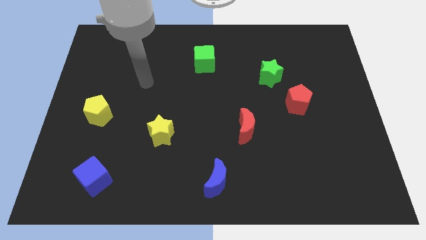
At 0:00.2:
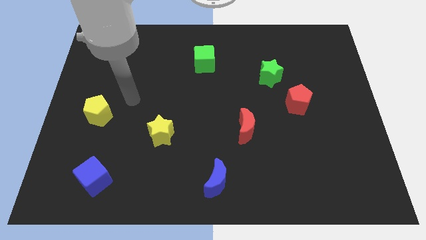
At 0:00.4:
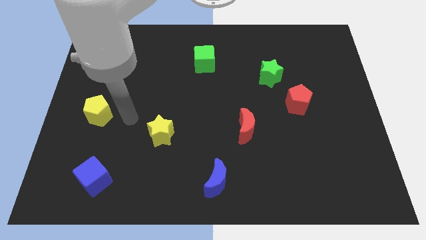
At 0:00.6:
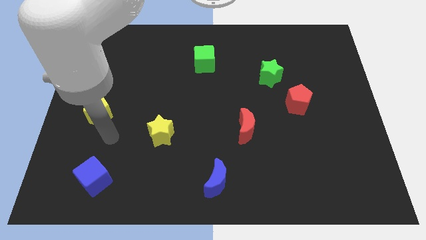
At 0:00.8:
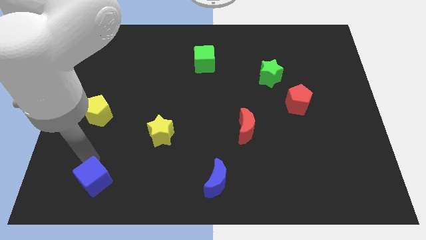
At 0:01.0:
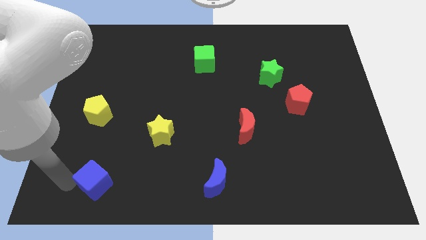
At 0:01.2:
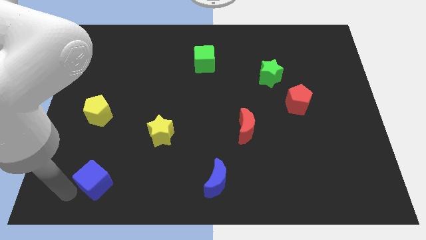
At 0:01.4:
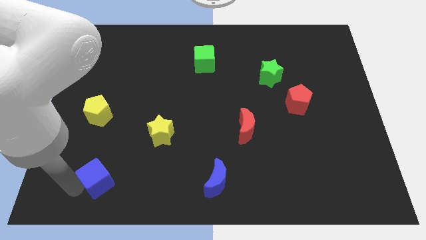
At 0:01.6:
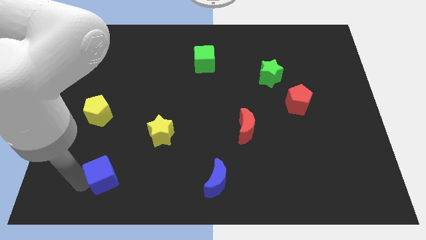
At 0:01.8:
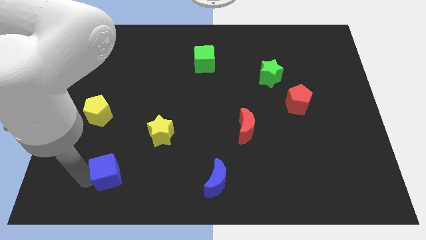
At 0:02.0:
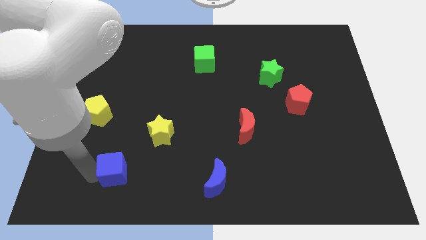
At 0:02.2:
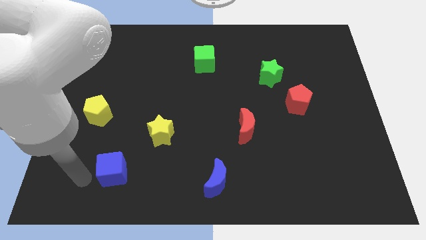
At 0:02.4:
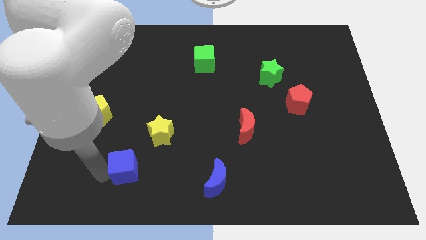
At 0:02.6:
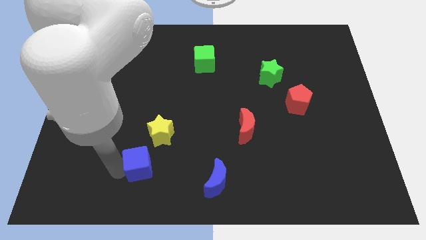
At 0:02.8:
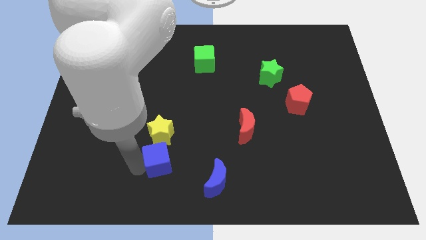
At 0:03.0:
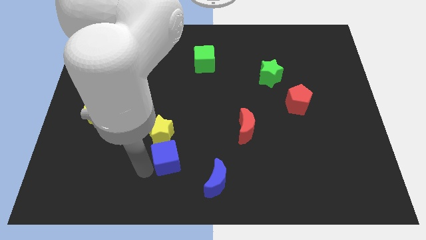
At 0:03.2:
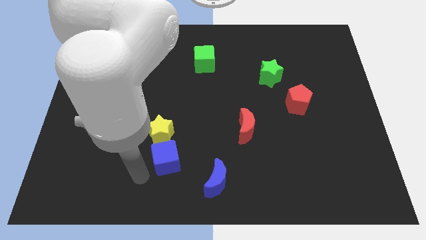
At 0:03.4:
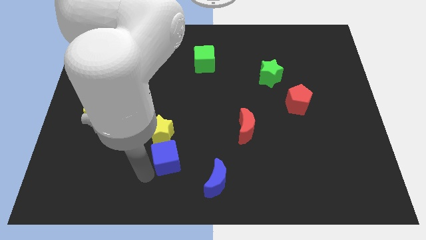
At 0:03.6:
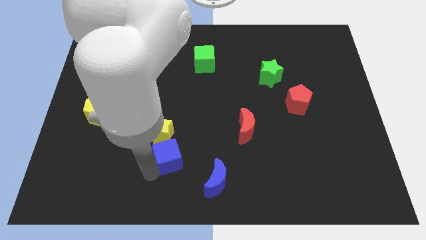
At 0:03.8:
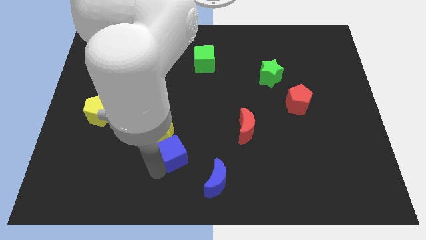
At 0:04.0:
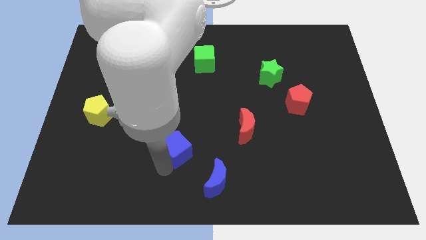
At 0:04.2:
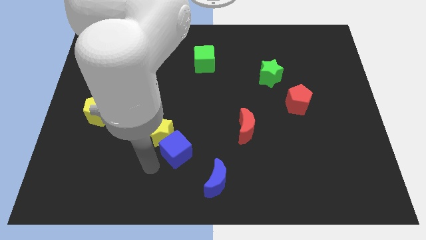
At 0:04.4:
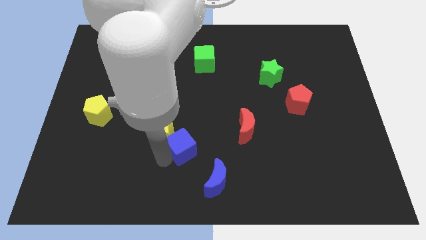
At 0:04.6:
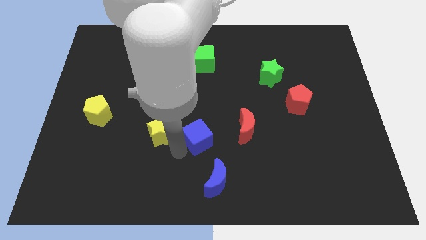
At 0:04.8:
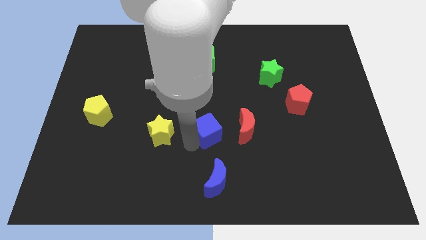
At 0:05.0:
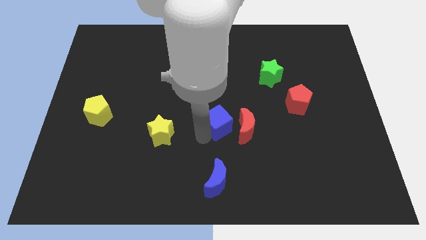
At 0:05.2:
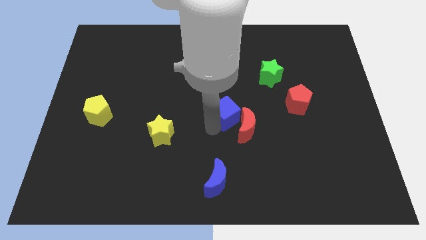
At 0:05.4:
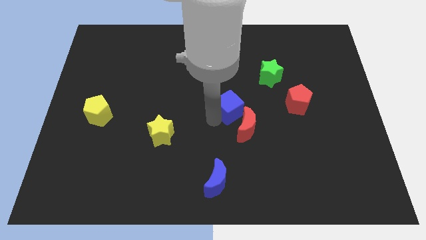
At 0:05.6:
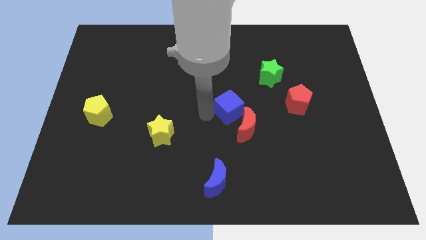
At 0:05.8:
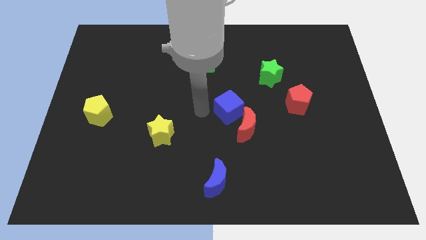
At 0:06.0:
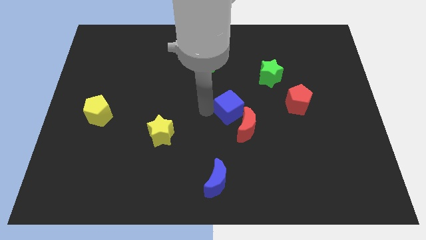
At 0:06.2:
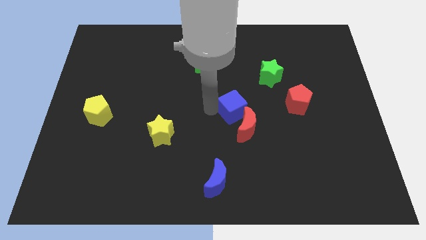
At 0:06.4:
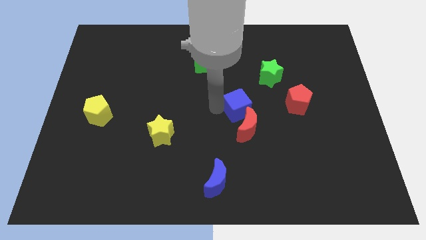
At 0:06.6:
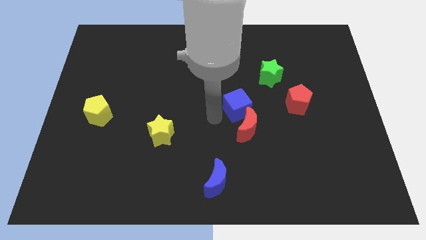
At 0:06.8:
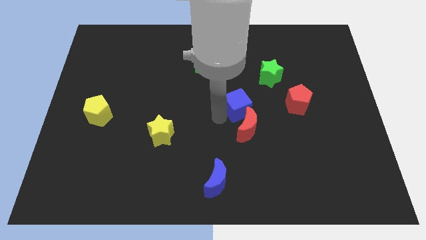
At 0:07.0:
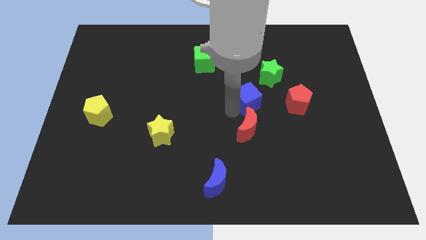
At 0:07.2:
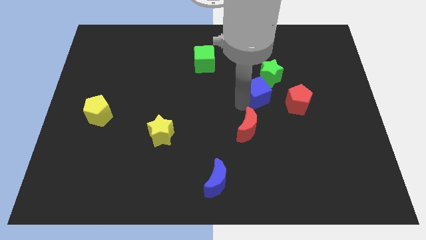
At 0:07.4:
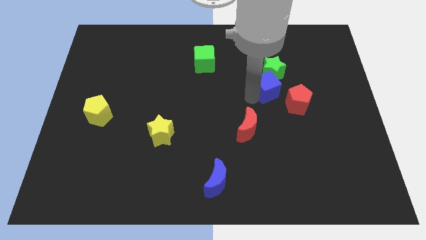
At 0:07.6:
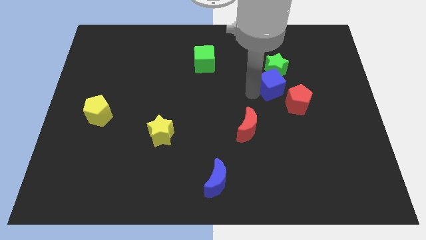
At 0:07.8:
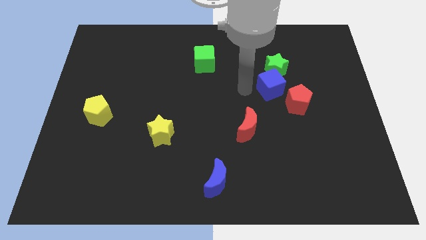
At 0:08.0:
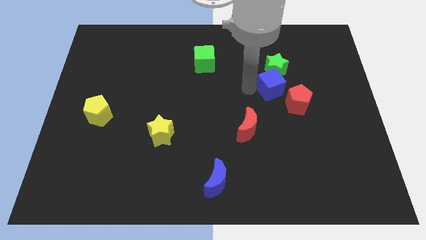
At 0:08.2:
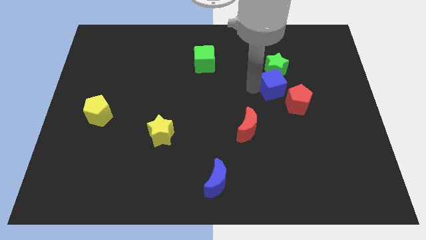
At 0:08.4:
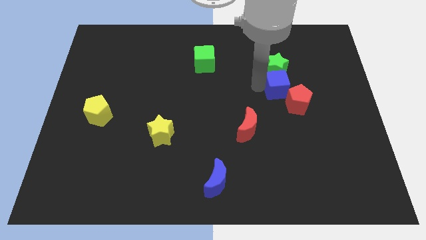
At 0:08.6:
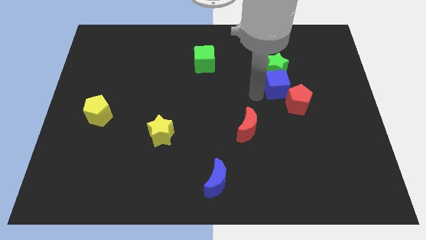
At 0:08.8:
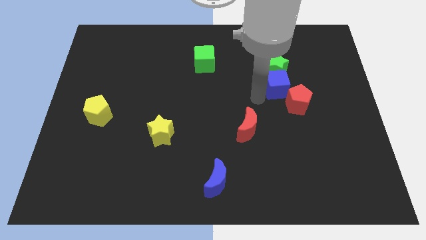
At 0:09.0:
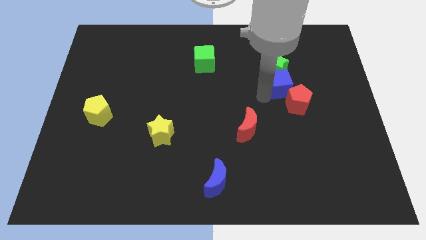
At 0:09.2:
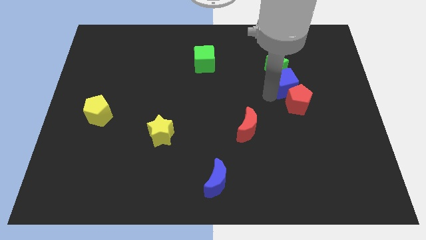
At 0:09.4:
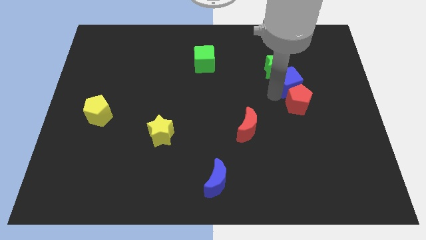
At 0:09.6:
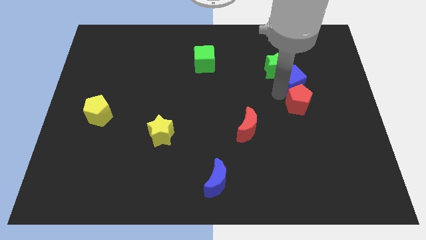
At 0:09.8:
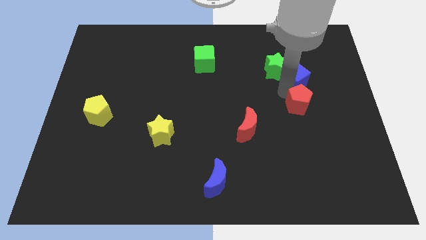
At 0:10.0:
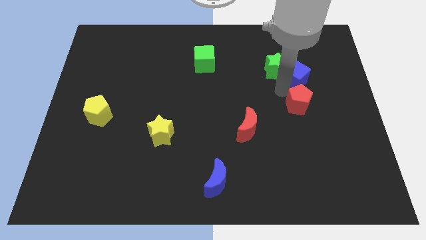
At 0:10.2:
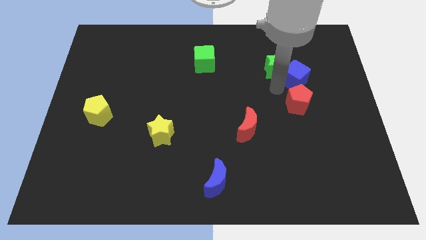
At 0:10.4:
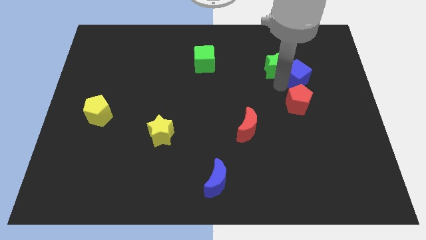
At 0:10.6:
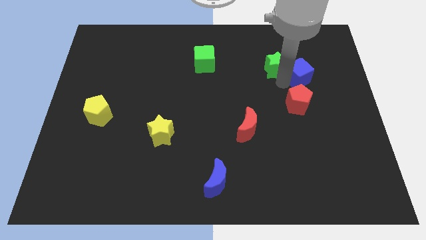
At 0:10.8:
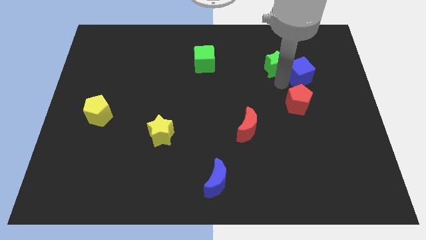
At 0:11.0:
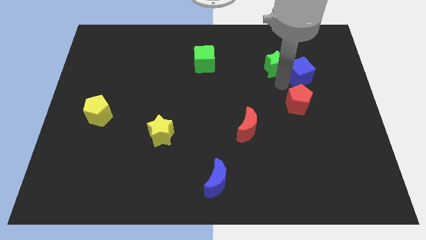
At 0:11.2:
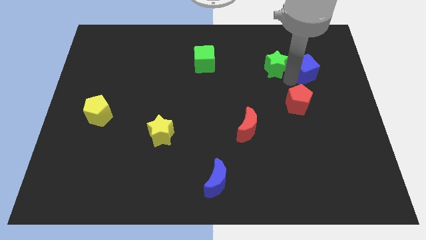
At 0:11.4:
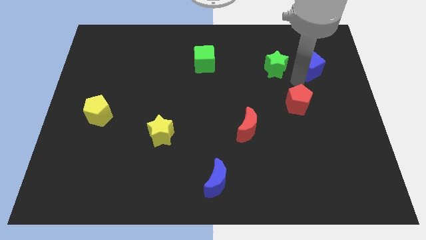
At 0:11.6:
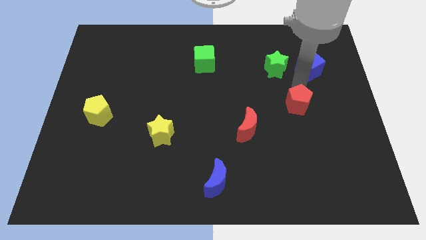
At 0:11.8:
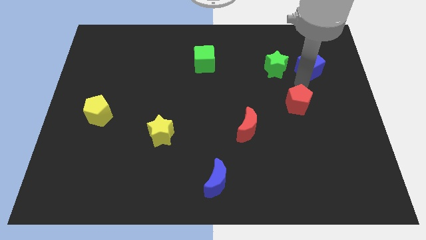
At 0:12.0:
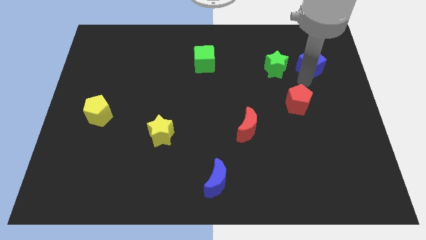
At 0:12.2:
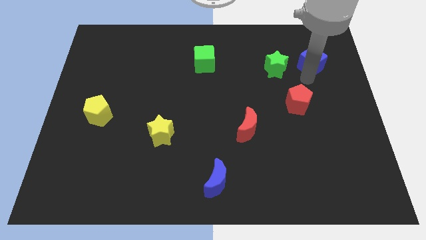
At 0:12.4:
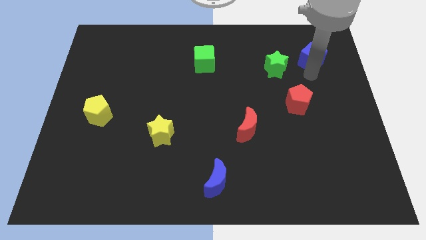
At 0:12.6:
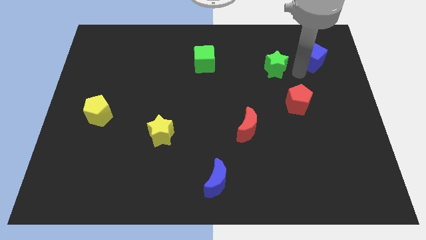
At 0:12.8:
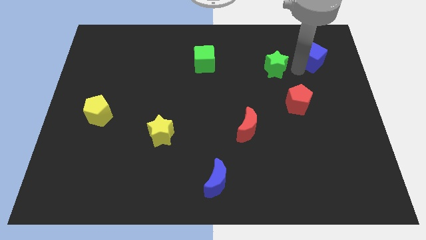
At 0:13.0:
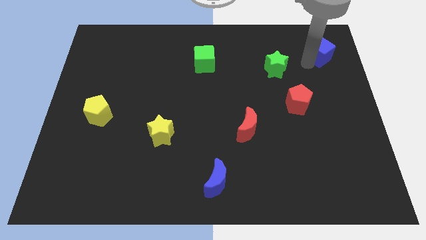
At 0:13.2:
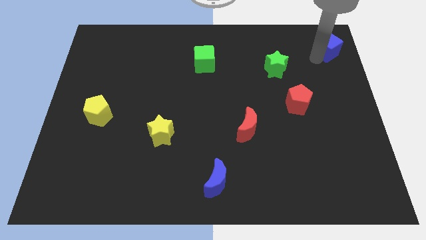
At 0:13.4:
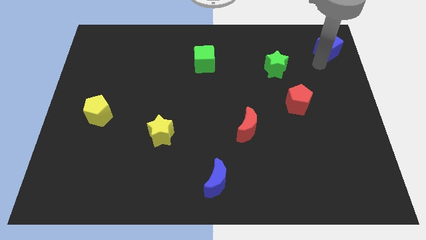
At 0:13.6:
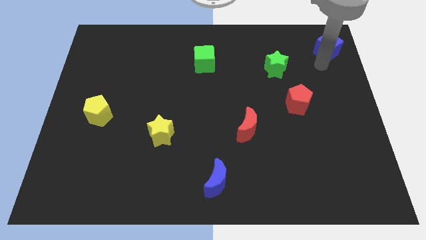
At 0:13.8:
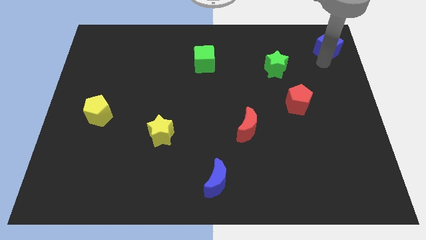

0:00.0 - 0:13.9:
move the blue cube to the top right
